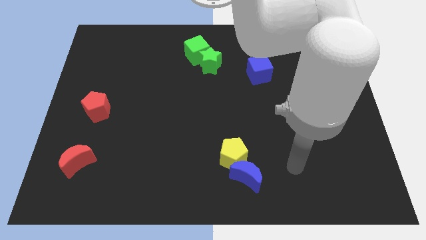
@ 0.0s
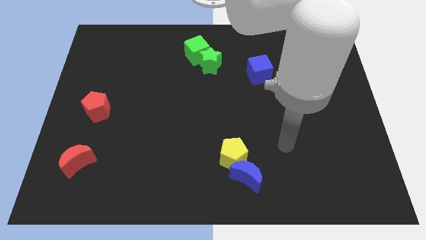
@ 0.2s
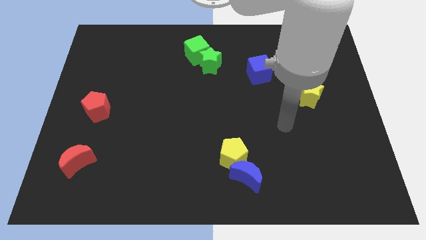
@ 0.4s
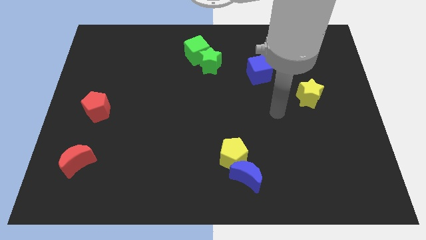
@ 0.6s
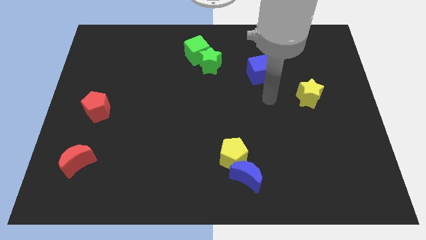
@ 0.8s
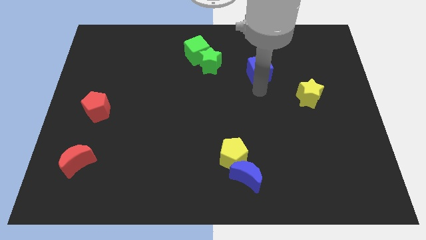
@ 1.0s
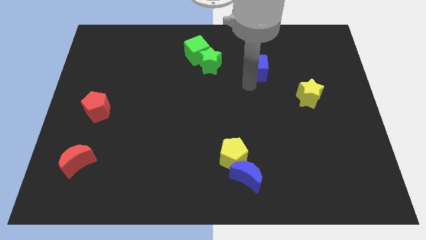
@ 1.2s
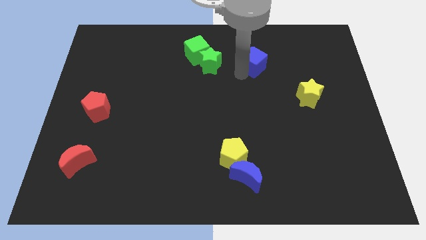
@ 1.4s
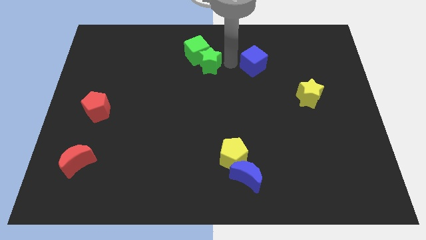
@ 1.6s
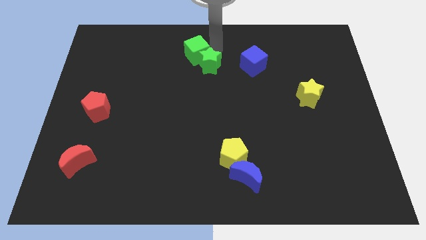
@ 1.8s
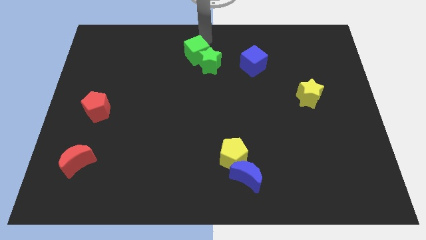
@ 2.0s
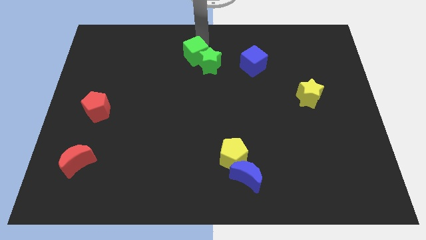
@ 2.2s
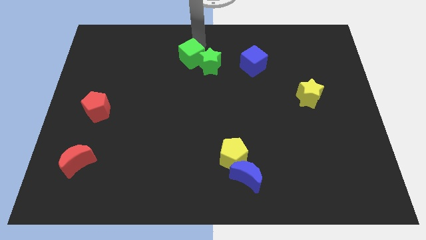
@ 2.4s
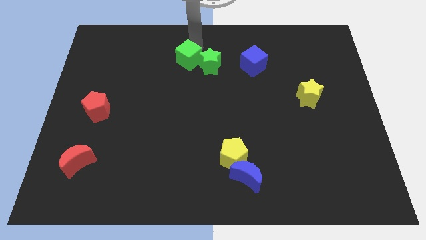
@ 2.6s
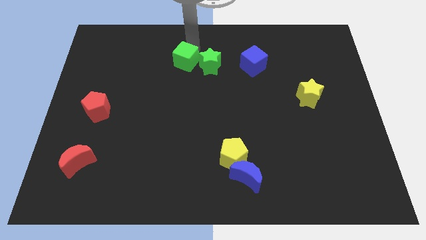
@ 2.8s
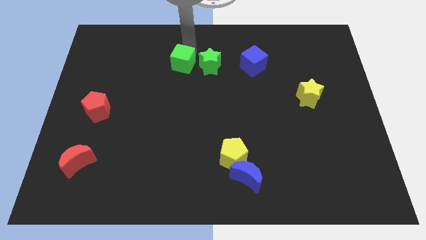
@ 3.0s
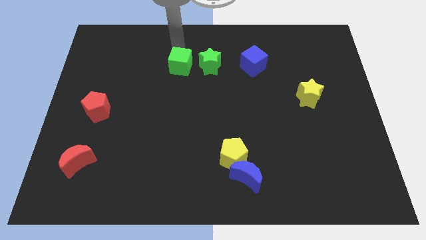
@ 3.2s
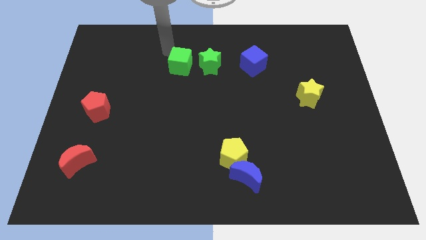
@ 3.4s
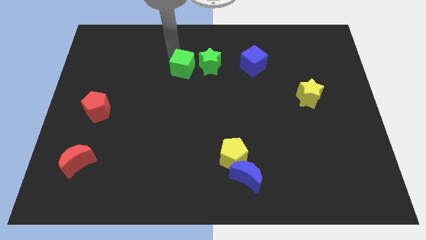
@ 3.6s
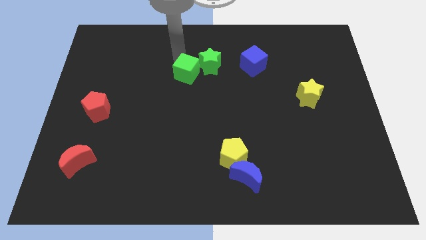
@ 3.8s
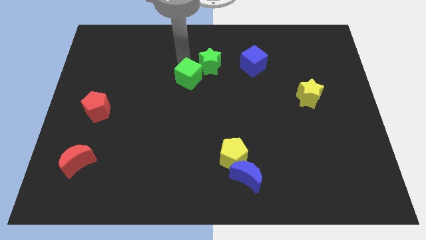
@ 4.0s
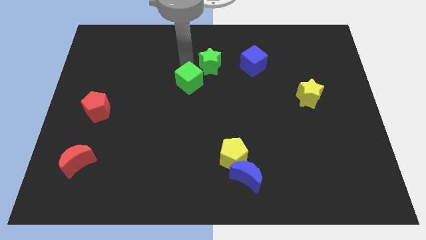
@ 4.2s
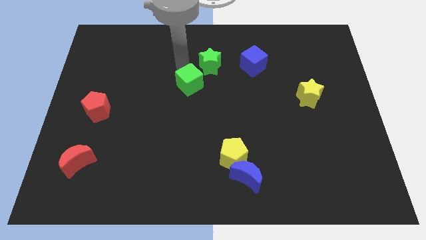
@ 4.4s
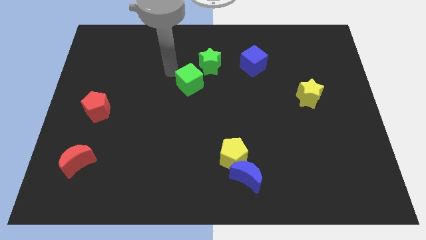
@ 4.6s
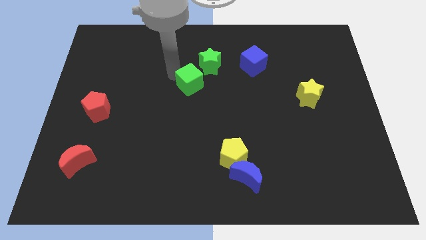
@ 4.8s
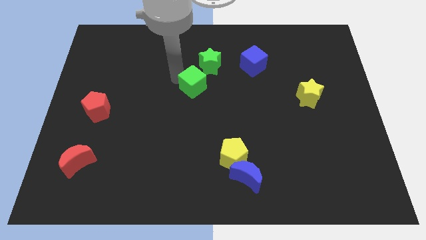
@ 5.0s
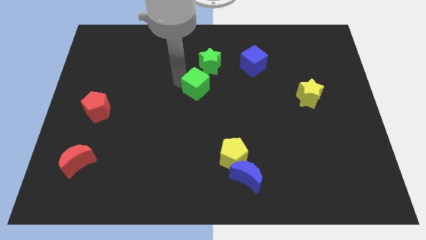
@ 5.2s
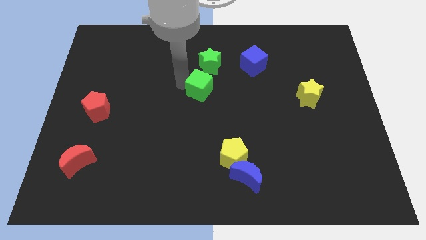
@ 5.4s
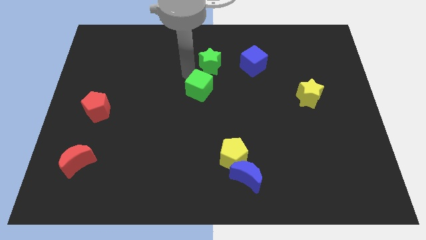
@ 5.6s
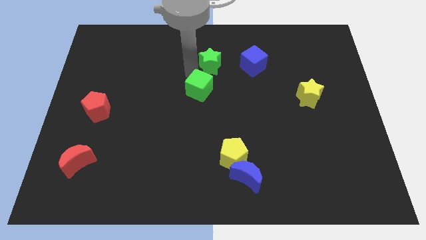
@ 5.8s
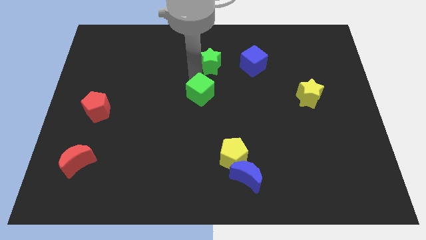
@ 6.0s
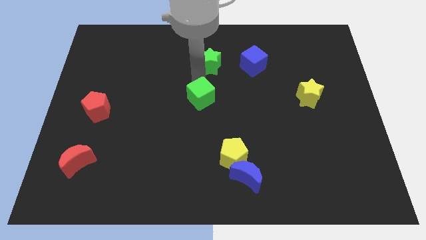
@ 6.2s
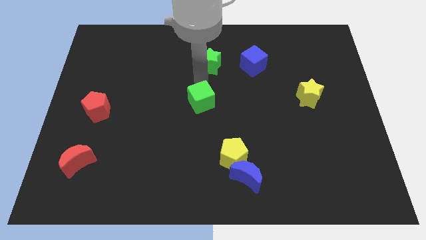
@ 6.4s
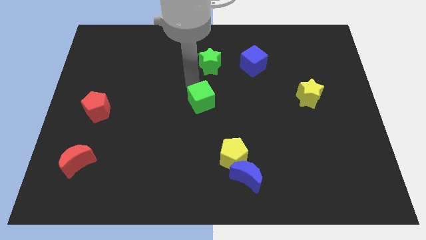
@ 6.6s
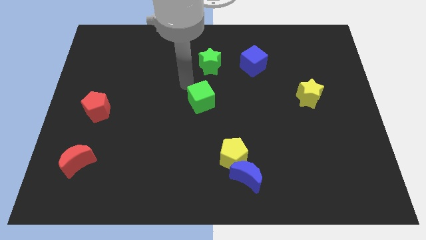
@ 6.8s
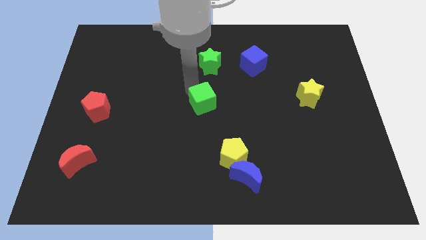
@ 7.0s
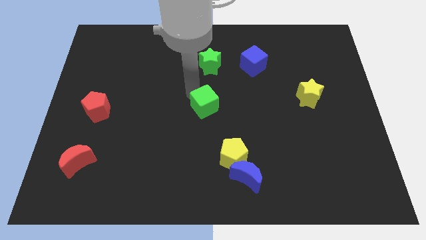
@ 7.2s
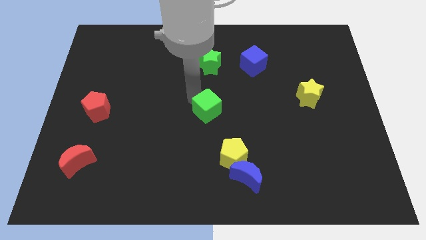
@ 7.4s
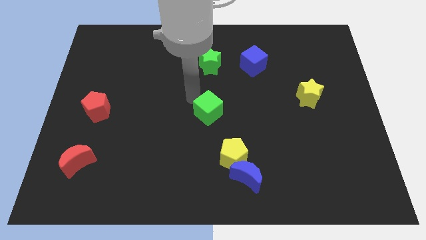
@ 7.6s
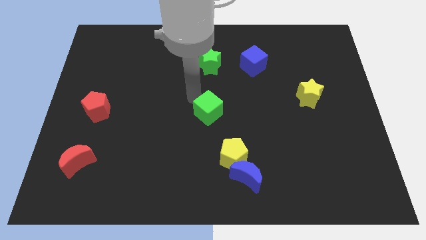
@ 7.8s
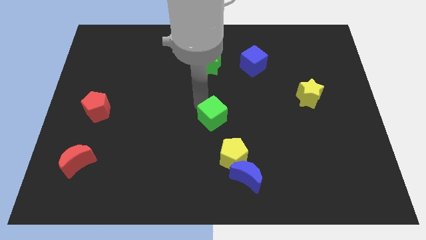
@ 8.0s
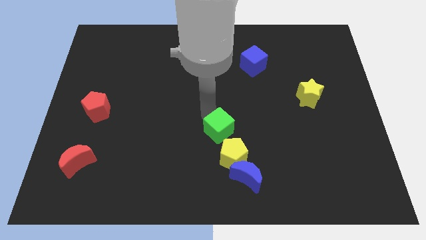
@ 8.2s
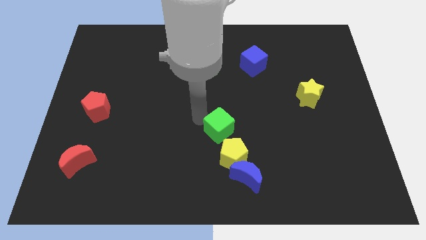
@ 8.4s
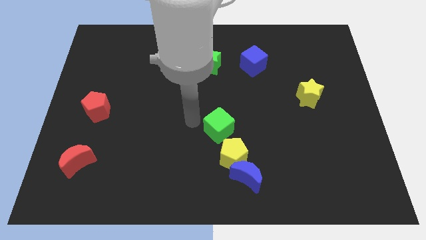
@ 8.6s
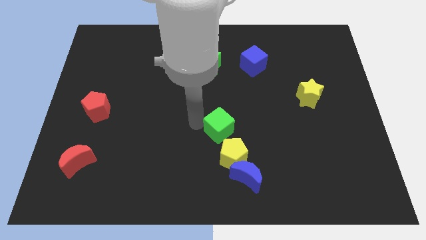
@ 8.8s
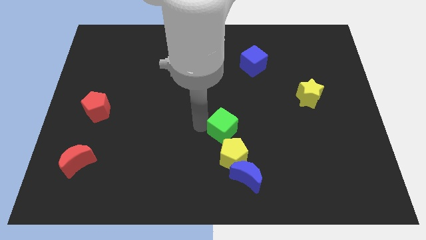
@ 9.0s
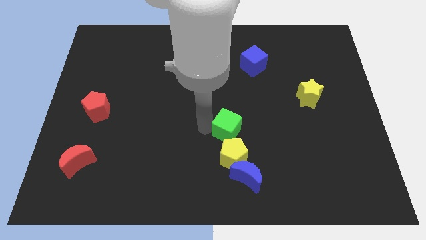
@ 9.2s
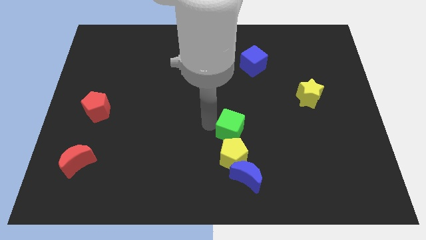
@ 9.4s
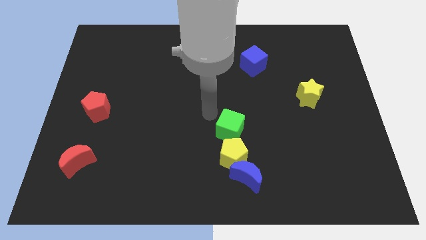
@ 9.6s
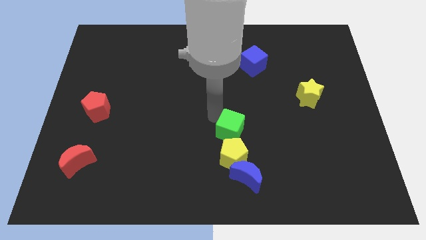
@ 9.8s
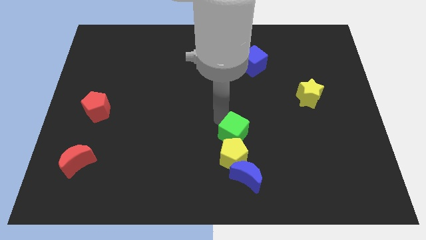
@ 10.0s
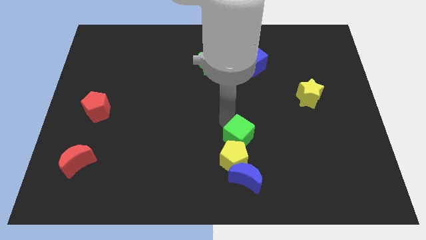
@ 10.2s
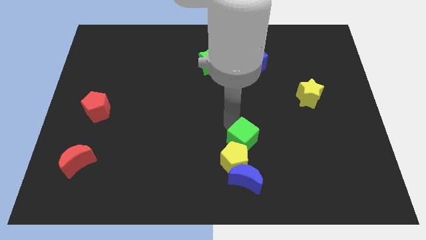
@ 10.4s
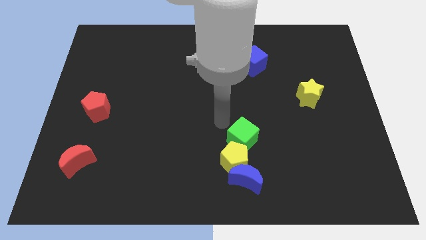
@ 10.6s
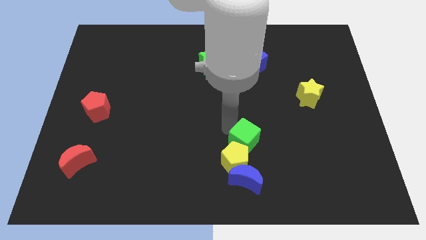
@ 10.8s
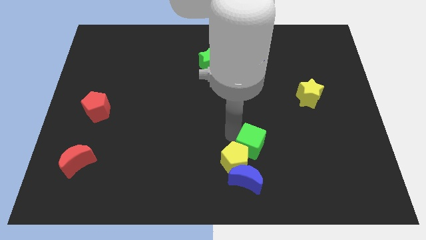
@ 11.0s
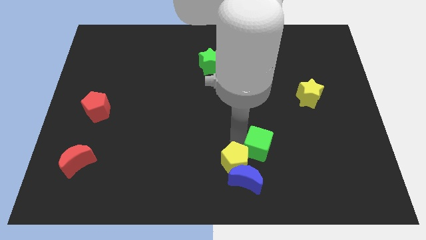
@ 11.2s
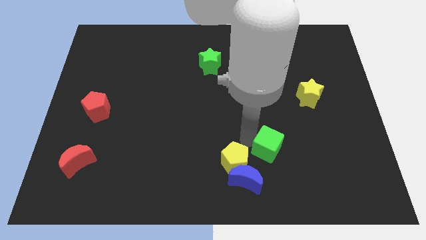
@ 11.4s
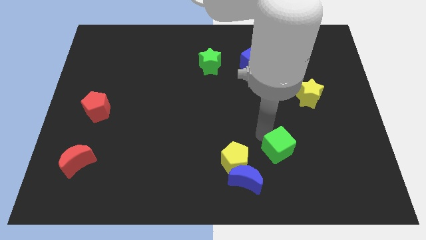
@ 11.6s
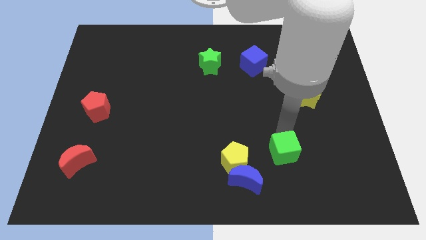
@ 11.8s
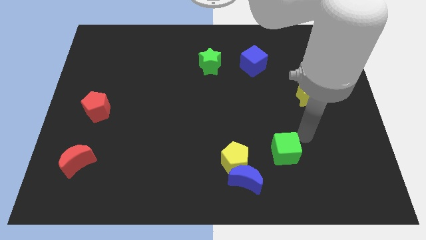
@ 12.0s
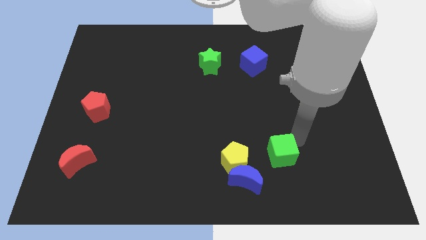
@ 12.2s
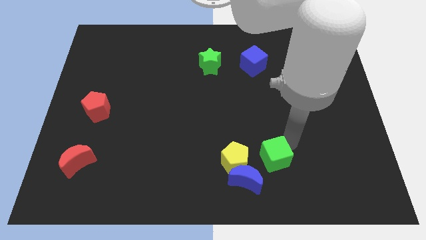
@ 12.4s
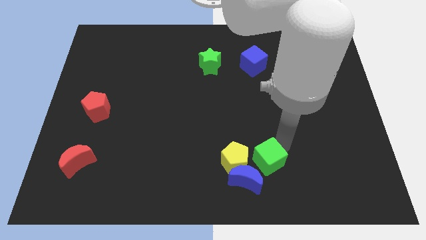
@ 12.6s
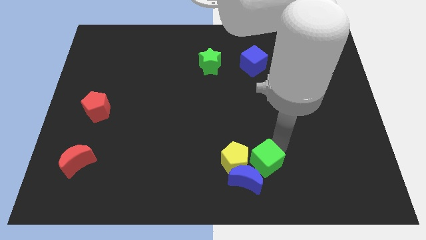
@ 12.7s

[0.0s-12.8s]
move the green cube close to the blue moon

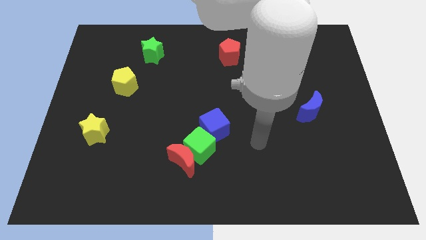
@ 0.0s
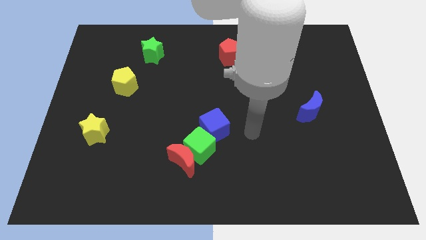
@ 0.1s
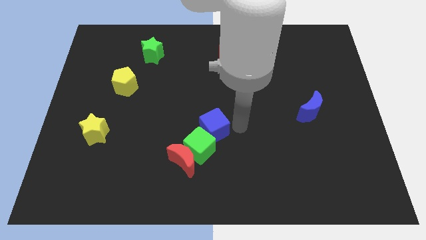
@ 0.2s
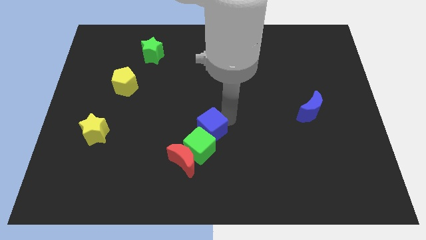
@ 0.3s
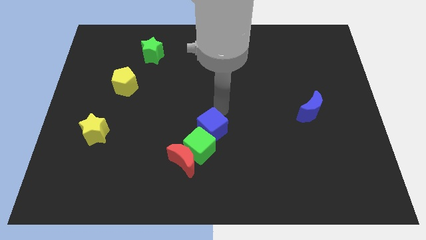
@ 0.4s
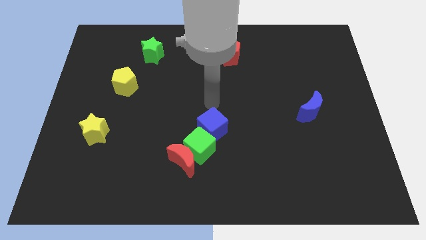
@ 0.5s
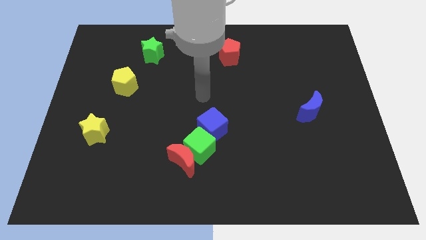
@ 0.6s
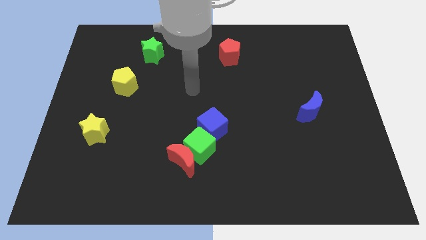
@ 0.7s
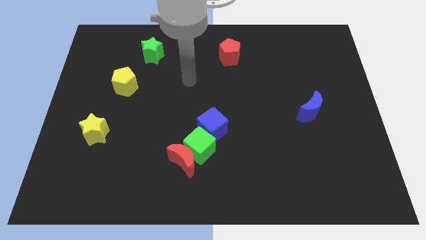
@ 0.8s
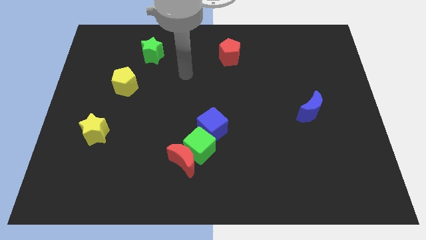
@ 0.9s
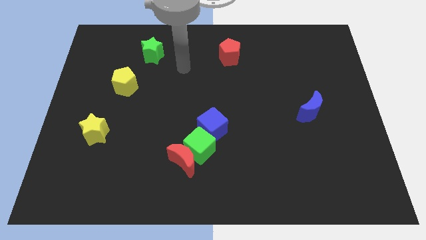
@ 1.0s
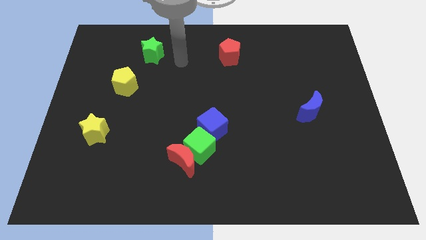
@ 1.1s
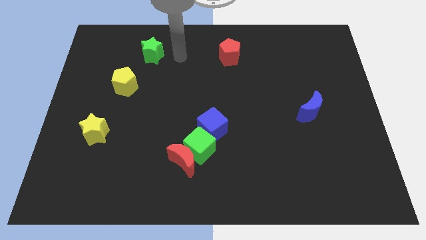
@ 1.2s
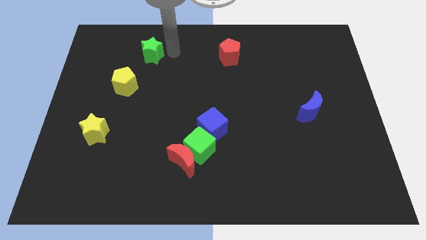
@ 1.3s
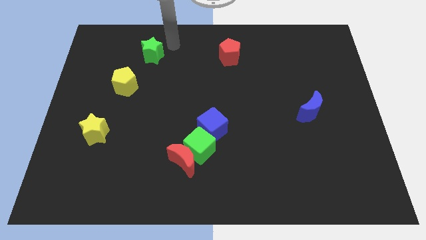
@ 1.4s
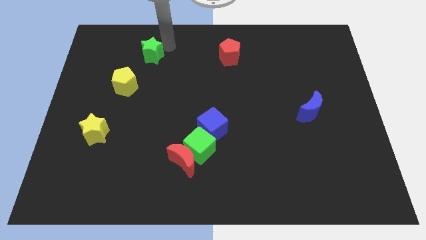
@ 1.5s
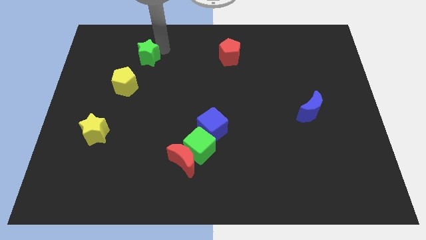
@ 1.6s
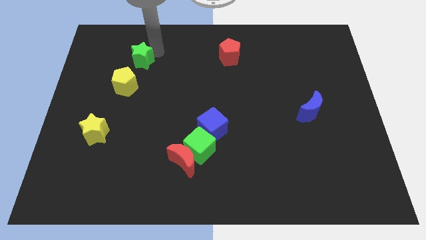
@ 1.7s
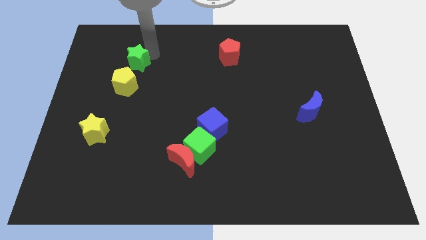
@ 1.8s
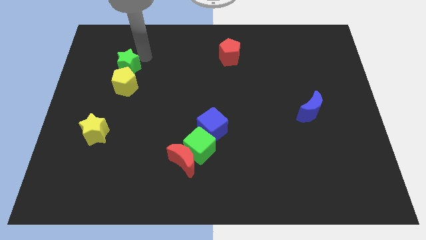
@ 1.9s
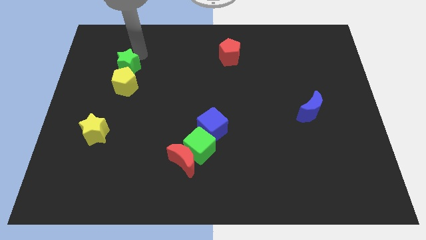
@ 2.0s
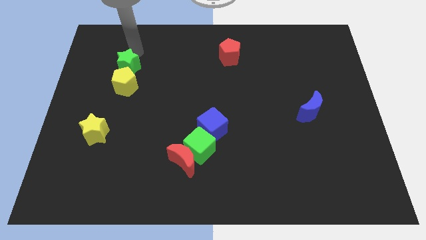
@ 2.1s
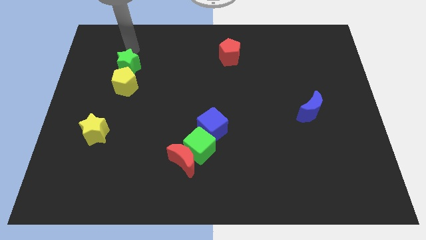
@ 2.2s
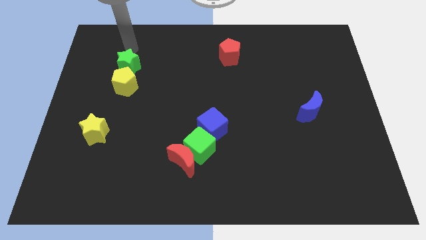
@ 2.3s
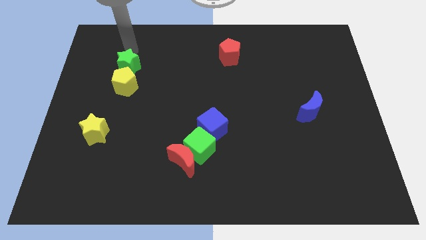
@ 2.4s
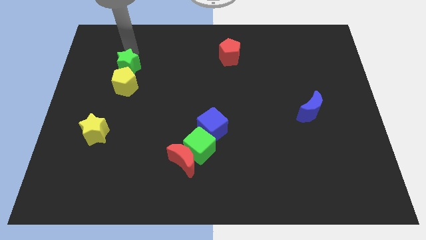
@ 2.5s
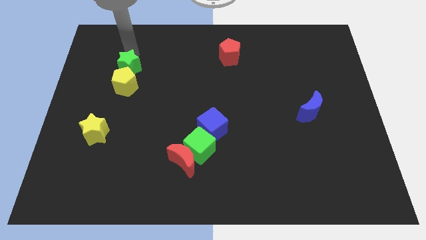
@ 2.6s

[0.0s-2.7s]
push the green star towards the yellow pentagon
